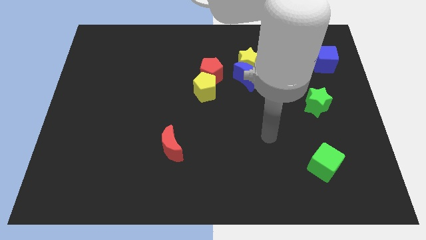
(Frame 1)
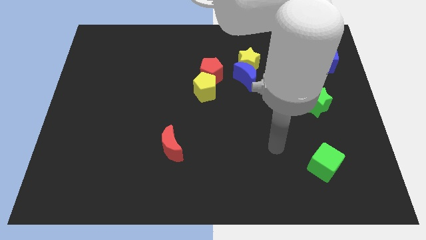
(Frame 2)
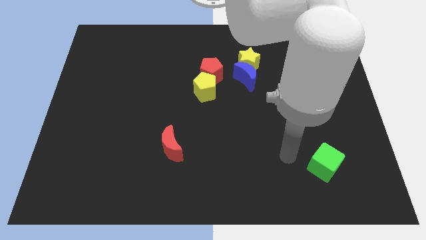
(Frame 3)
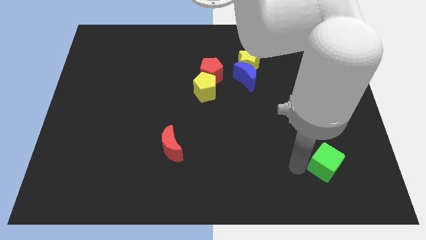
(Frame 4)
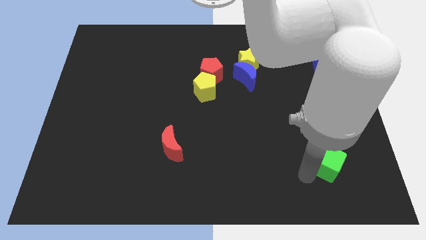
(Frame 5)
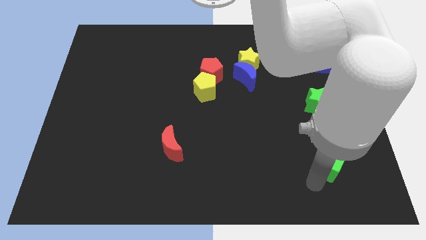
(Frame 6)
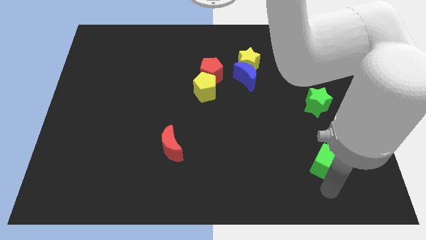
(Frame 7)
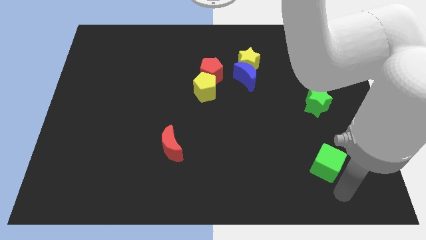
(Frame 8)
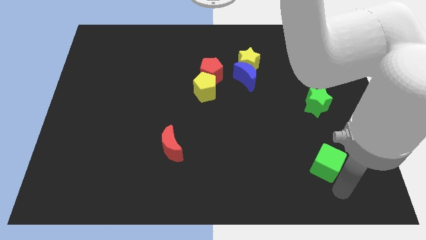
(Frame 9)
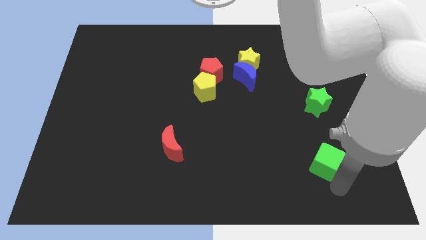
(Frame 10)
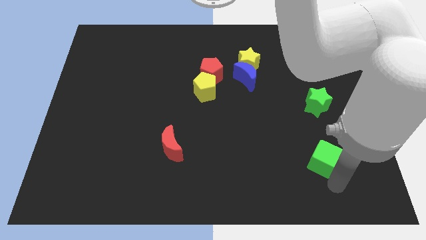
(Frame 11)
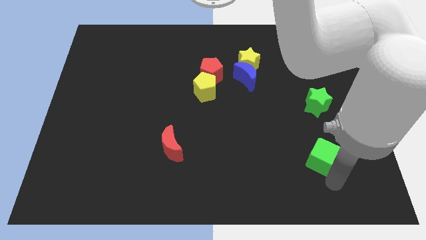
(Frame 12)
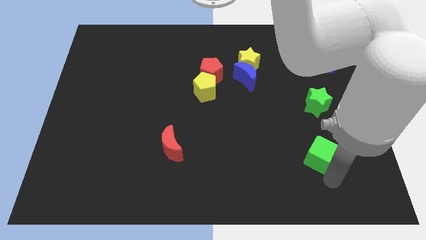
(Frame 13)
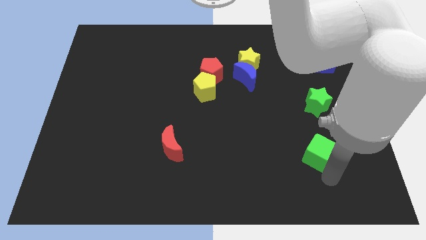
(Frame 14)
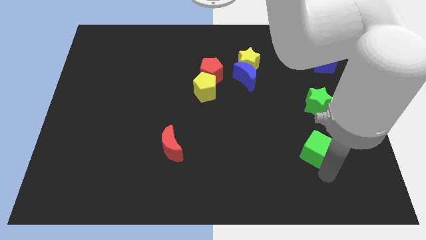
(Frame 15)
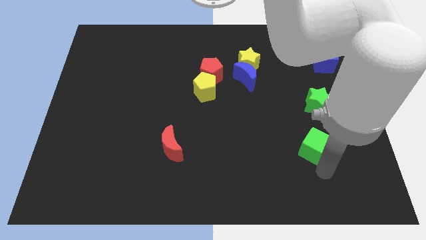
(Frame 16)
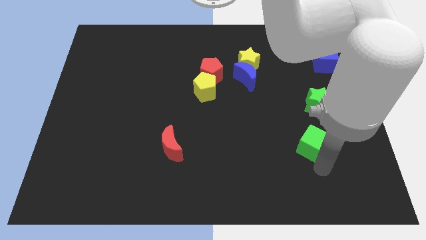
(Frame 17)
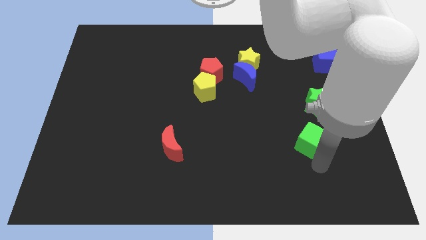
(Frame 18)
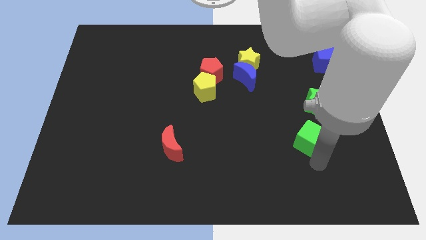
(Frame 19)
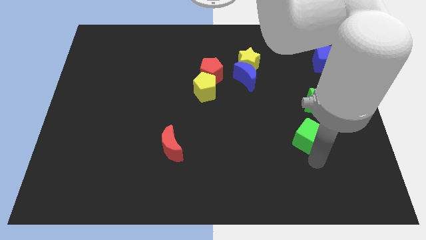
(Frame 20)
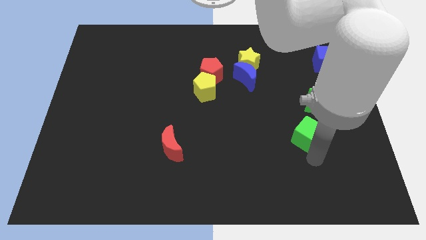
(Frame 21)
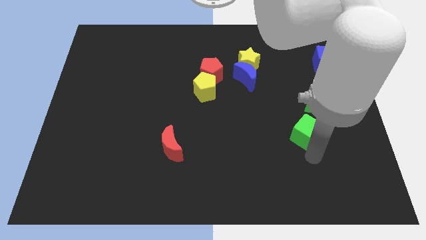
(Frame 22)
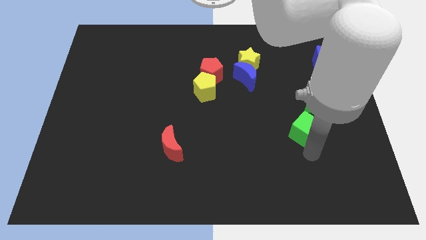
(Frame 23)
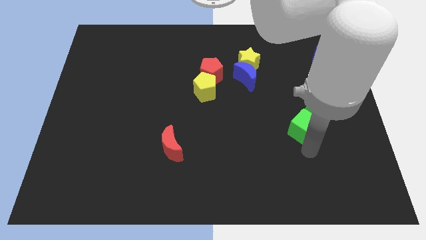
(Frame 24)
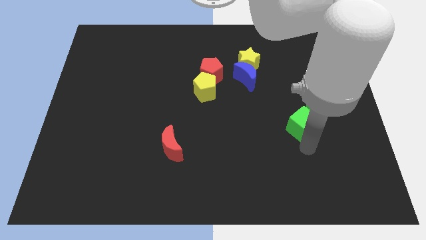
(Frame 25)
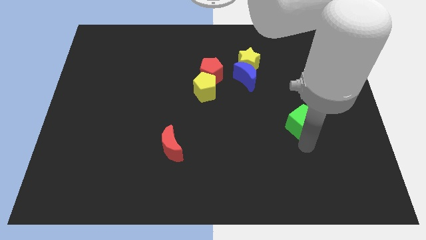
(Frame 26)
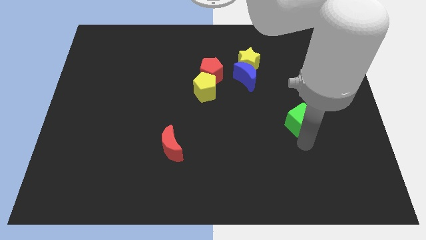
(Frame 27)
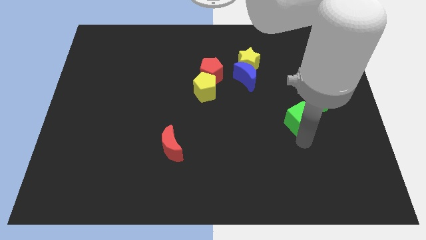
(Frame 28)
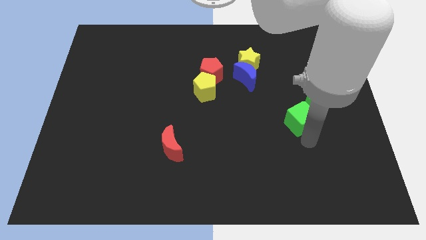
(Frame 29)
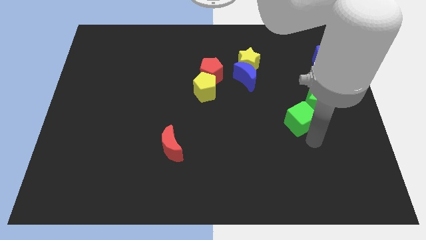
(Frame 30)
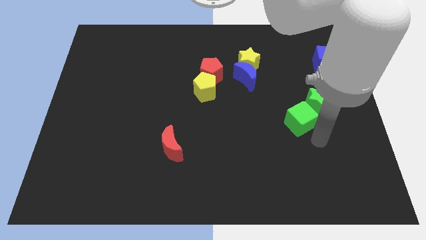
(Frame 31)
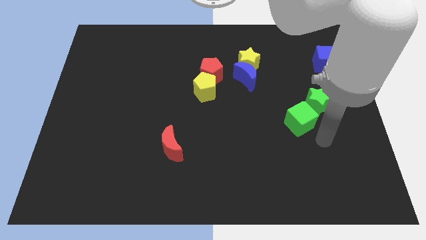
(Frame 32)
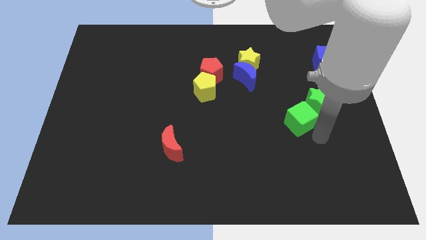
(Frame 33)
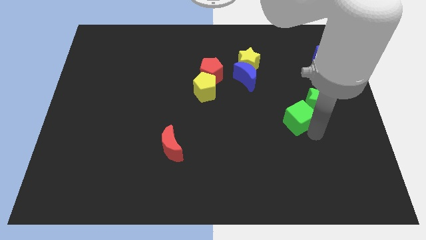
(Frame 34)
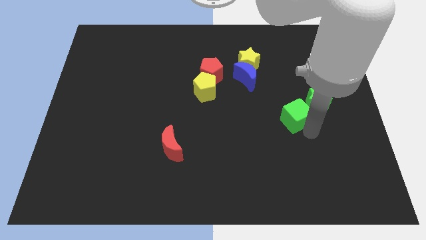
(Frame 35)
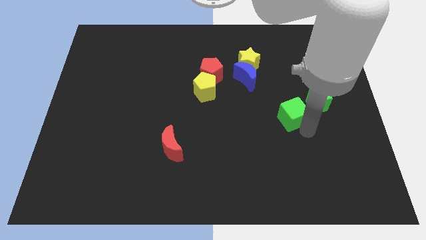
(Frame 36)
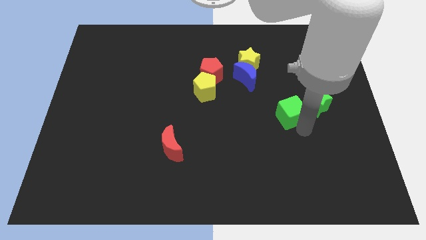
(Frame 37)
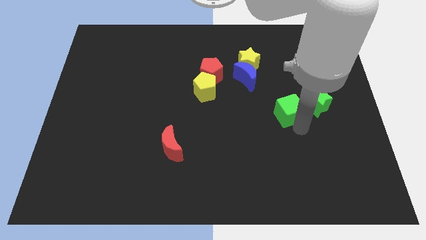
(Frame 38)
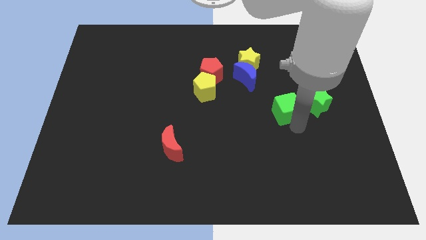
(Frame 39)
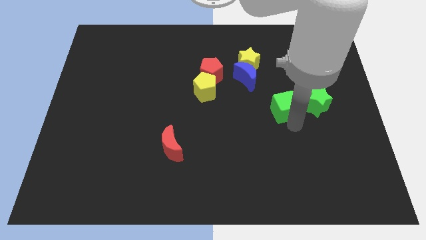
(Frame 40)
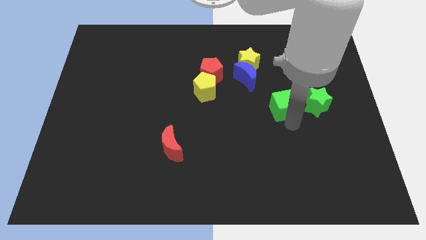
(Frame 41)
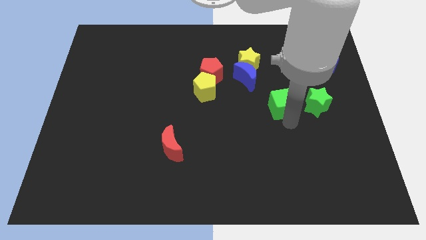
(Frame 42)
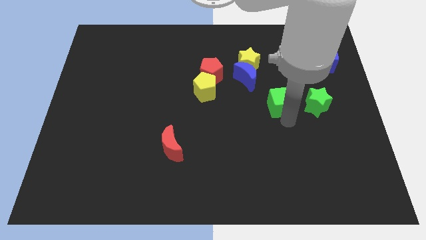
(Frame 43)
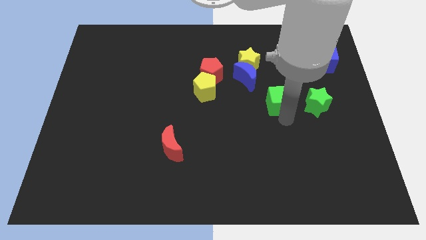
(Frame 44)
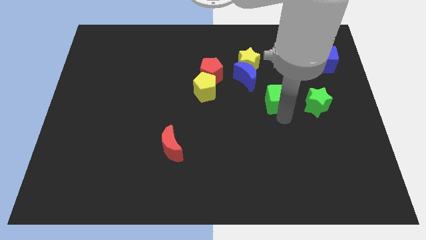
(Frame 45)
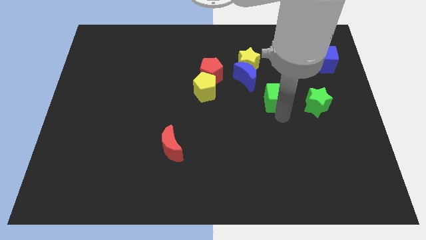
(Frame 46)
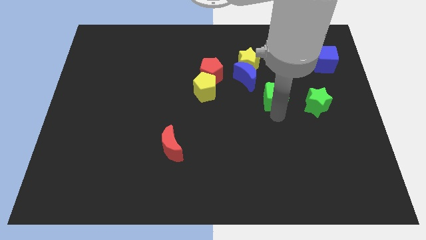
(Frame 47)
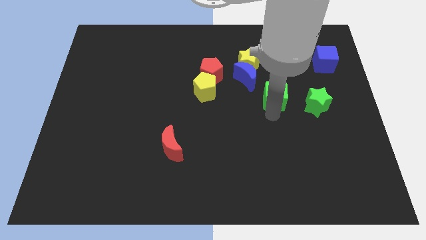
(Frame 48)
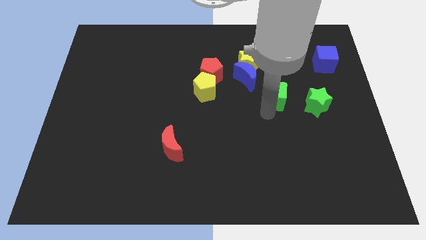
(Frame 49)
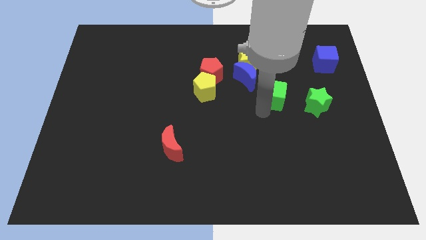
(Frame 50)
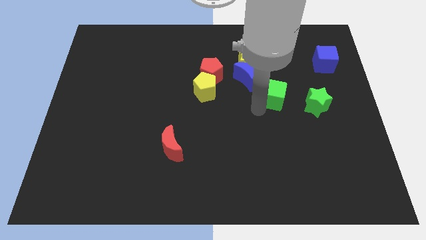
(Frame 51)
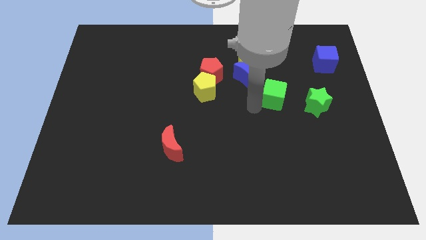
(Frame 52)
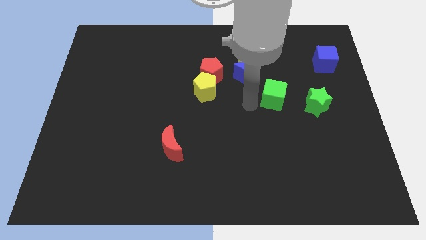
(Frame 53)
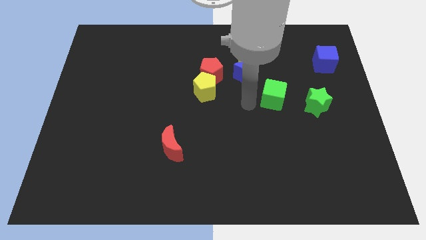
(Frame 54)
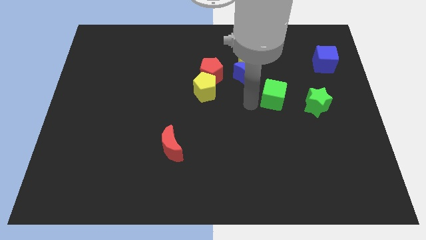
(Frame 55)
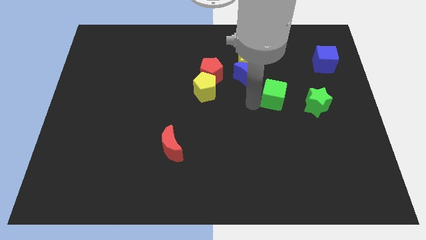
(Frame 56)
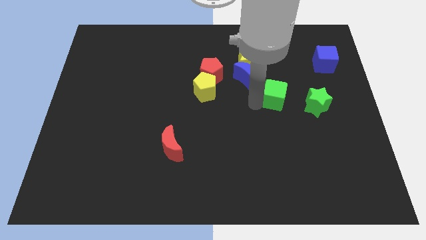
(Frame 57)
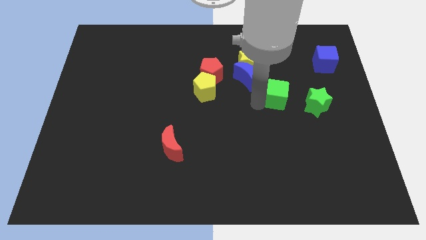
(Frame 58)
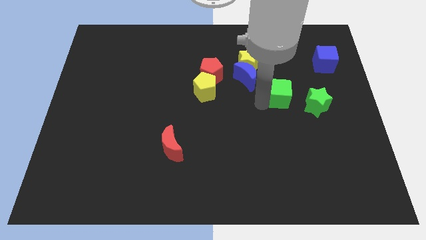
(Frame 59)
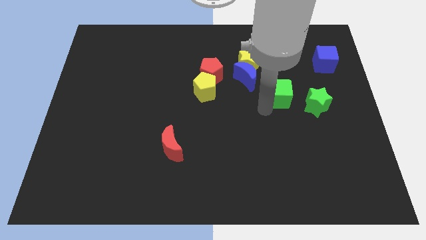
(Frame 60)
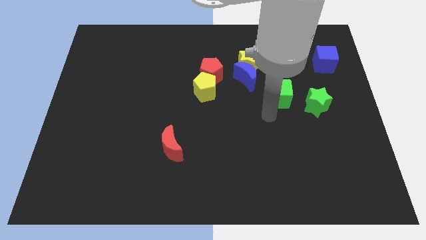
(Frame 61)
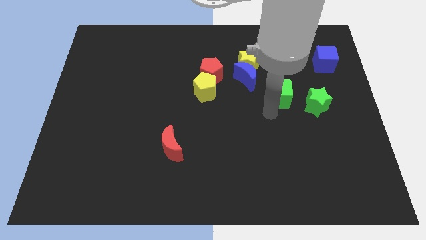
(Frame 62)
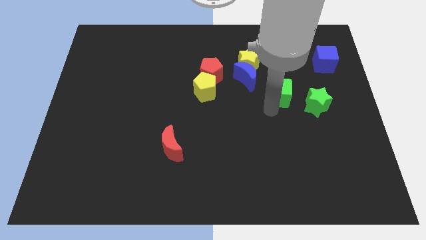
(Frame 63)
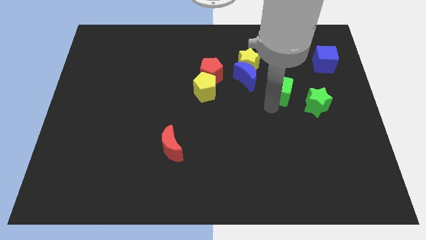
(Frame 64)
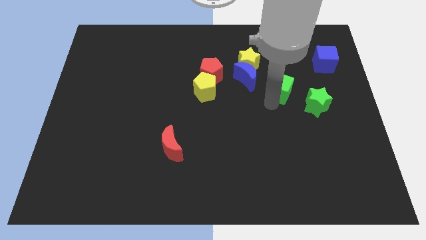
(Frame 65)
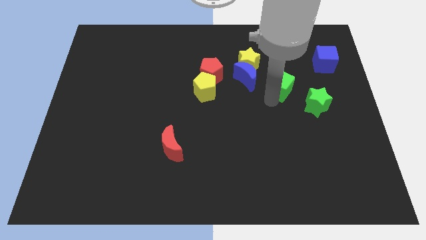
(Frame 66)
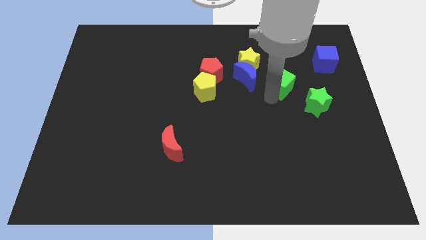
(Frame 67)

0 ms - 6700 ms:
move the green cube upwards

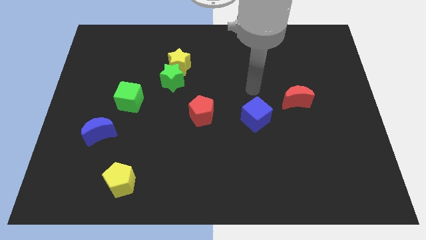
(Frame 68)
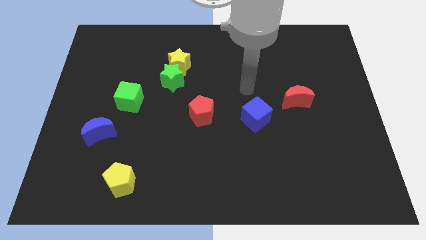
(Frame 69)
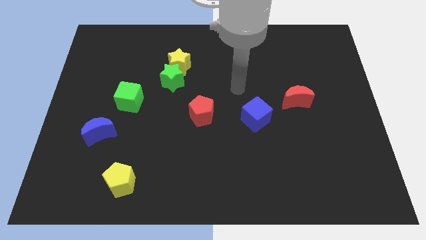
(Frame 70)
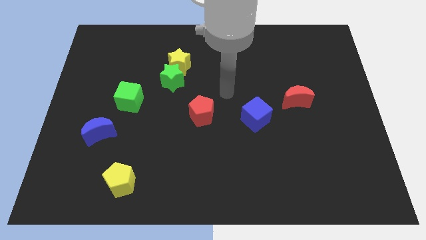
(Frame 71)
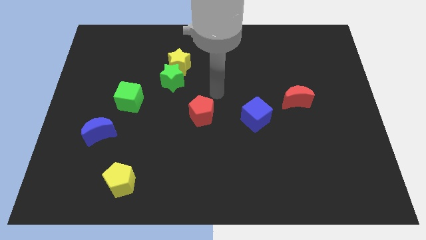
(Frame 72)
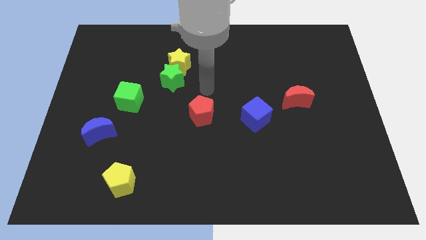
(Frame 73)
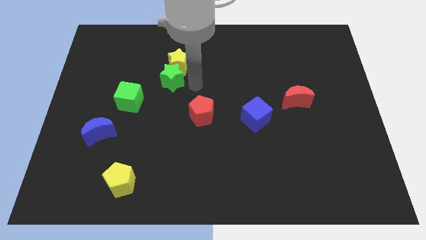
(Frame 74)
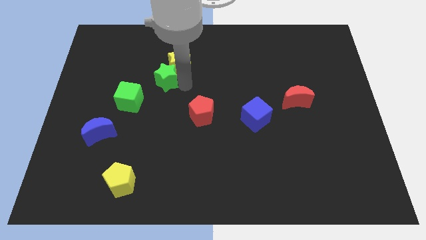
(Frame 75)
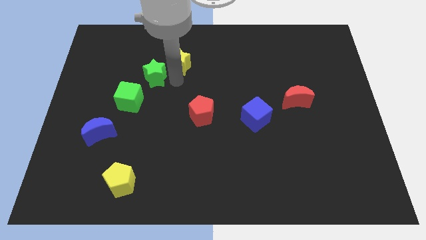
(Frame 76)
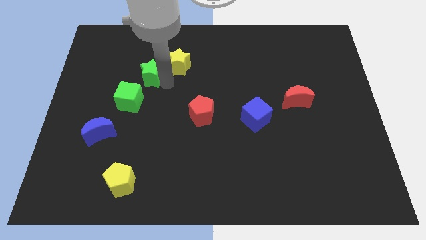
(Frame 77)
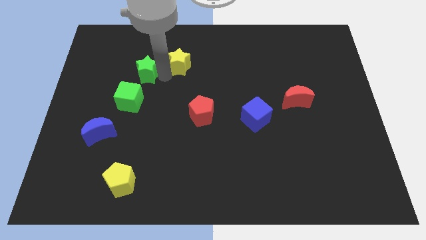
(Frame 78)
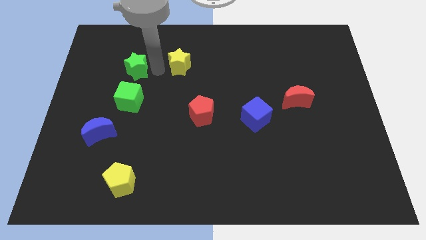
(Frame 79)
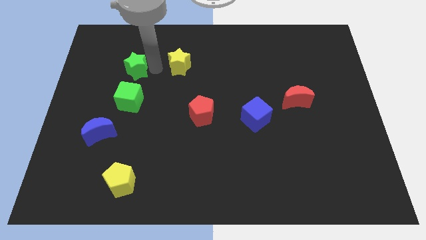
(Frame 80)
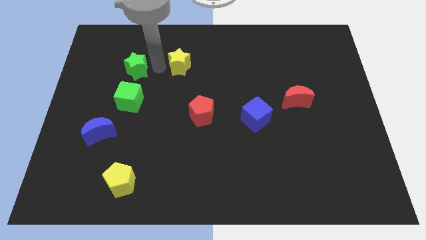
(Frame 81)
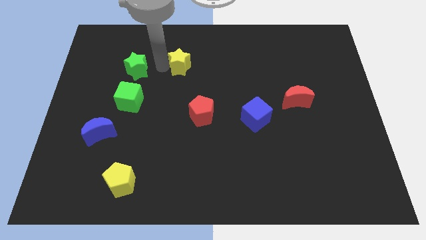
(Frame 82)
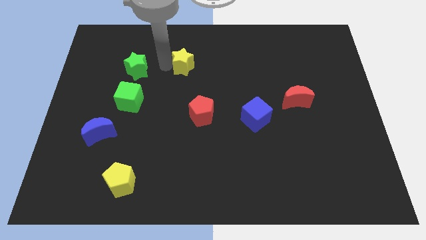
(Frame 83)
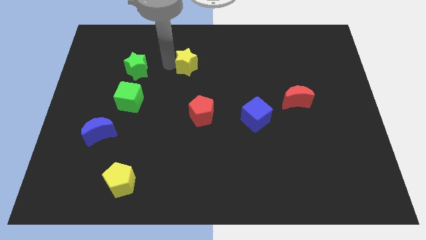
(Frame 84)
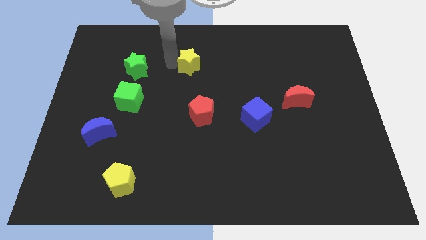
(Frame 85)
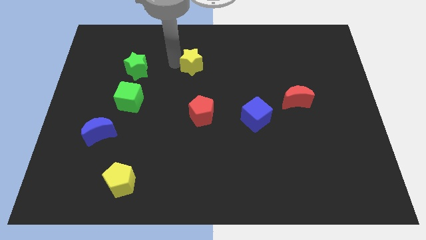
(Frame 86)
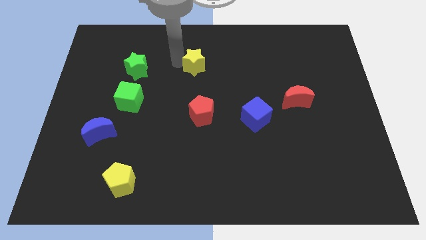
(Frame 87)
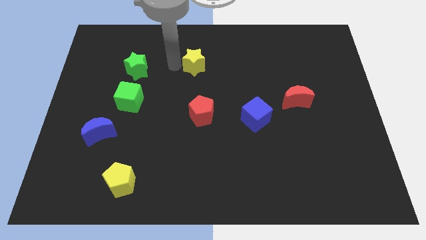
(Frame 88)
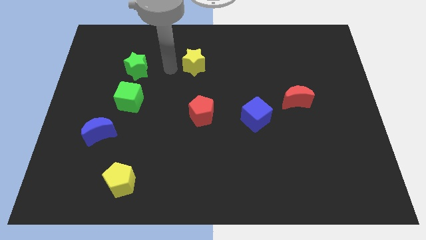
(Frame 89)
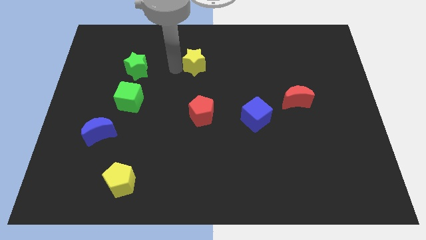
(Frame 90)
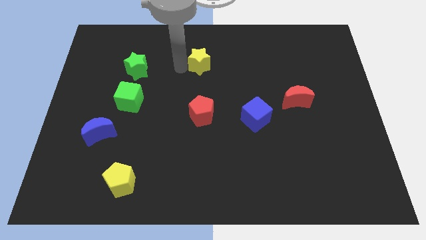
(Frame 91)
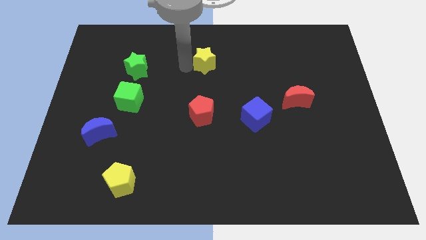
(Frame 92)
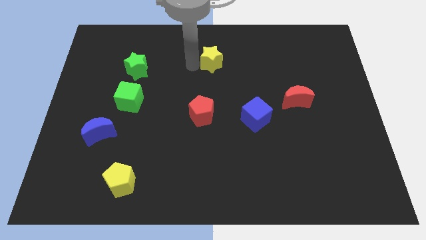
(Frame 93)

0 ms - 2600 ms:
push the yellow star somewhat right
